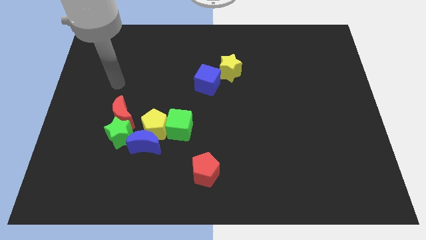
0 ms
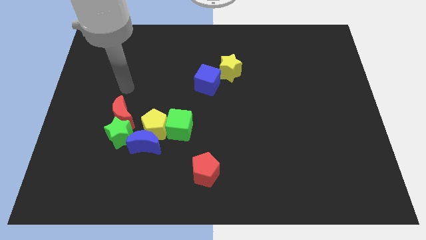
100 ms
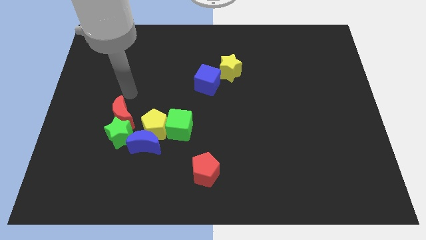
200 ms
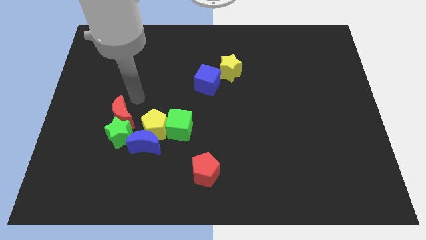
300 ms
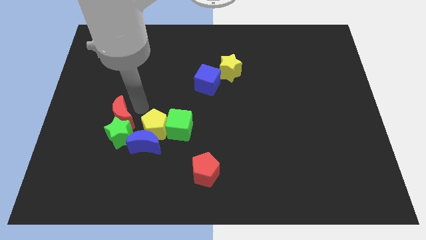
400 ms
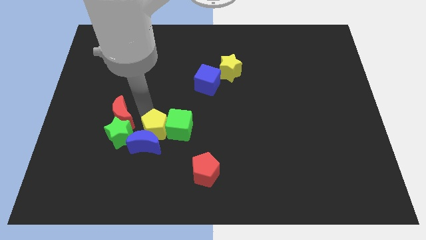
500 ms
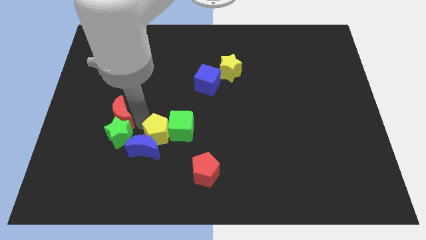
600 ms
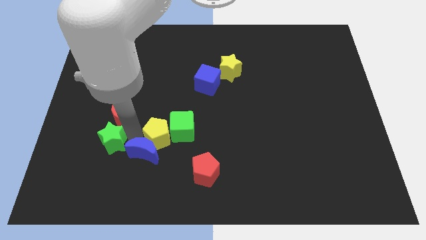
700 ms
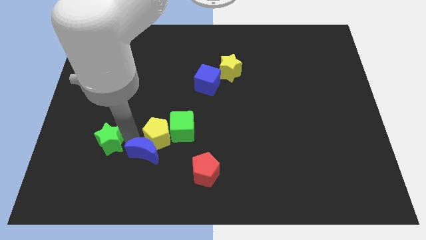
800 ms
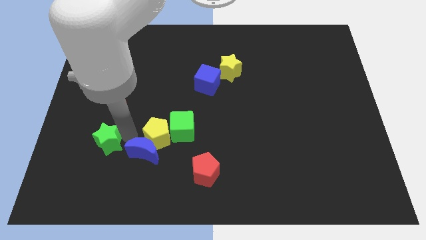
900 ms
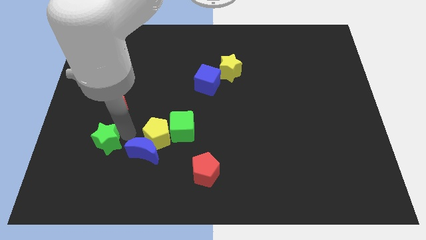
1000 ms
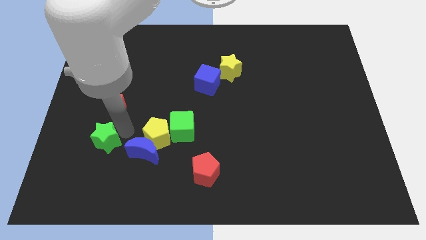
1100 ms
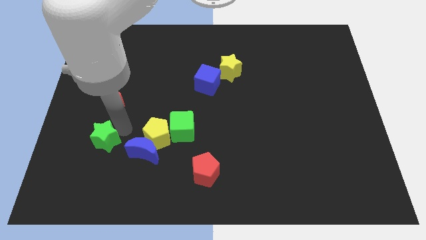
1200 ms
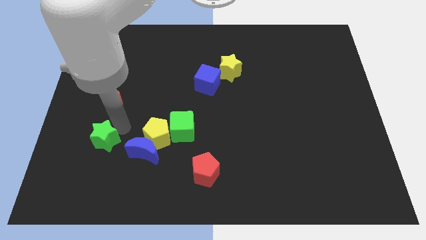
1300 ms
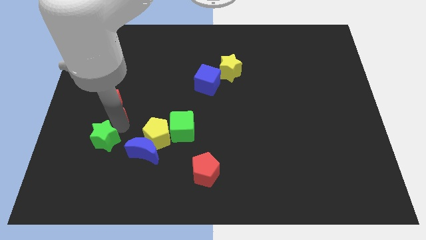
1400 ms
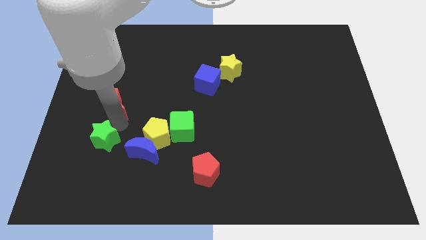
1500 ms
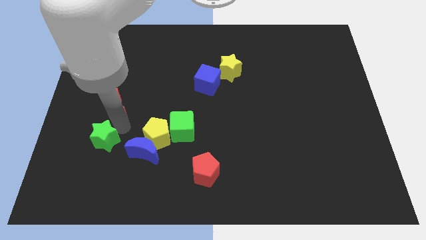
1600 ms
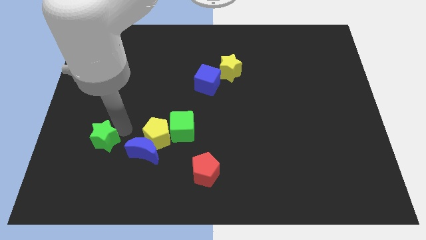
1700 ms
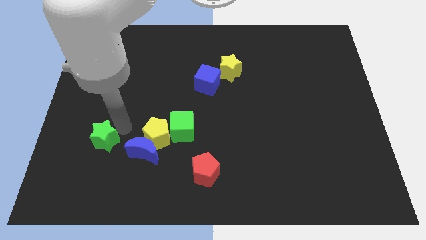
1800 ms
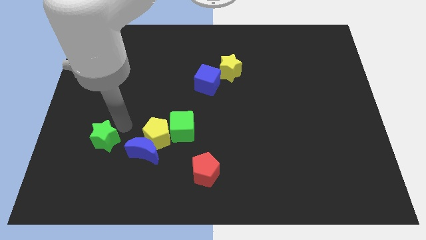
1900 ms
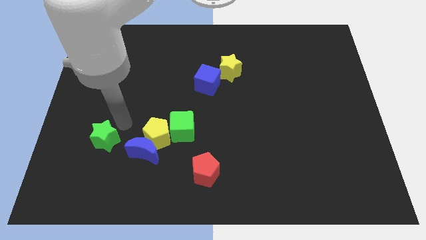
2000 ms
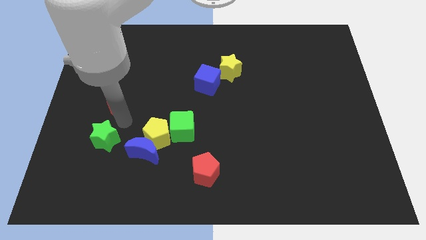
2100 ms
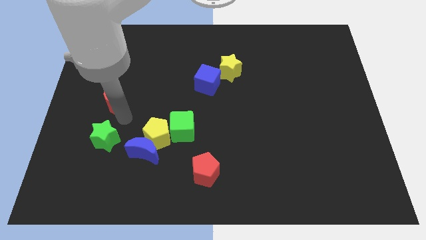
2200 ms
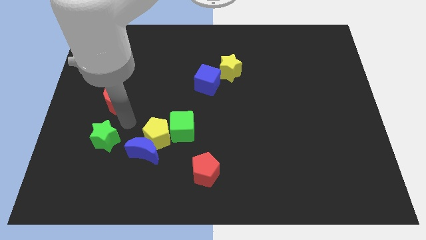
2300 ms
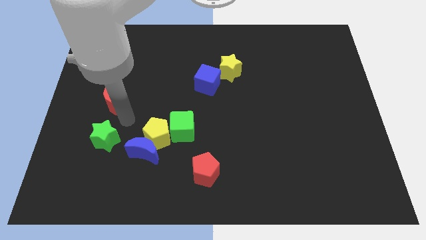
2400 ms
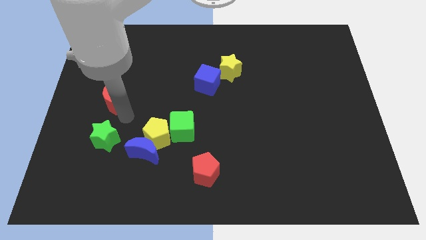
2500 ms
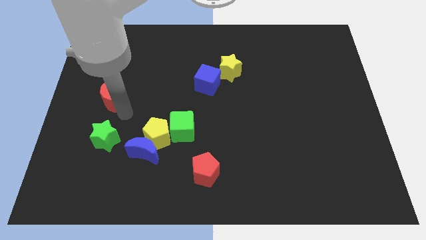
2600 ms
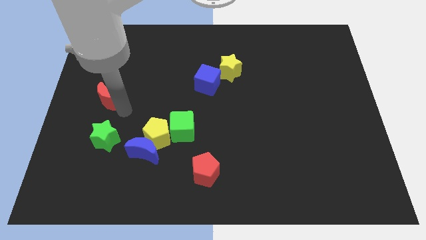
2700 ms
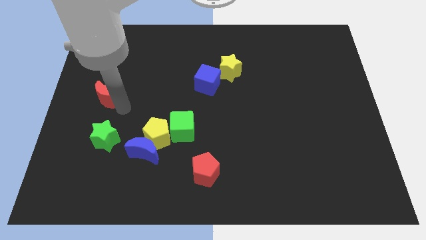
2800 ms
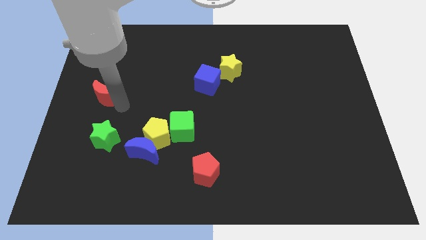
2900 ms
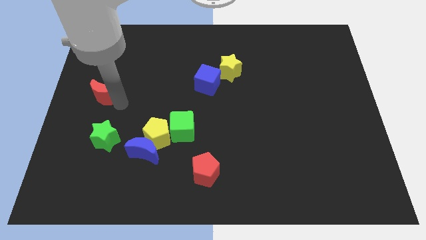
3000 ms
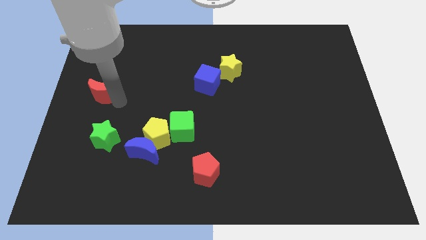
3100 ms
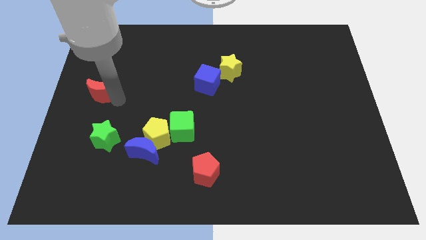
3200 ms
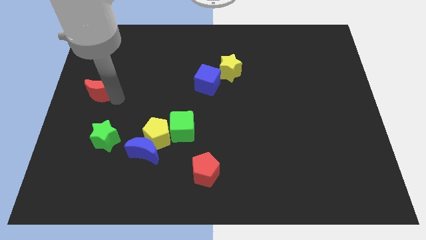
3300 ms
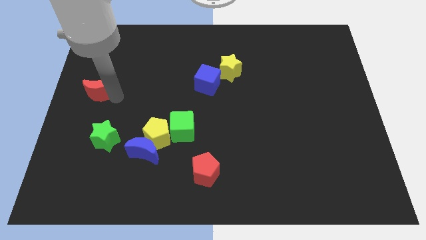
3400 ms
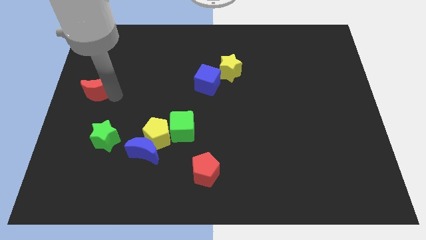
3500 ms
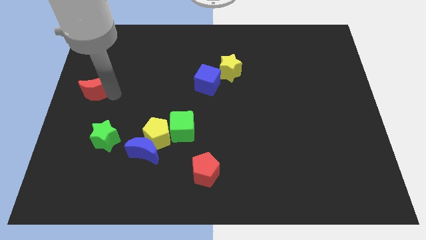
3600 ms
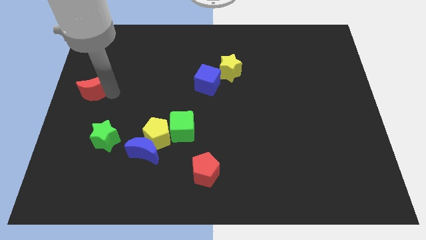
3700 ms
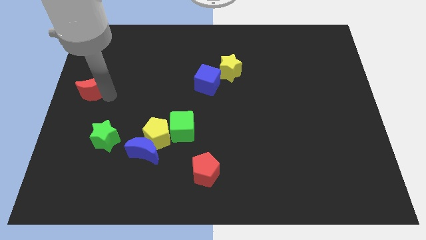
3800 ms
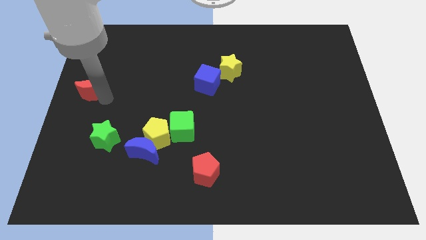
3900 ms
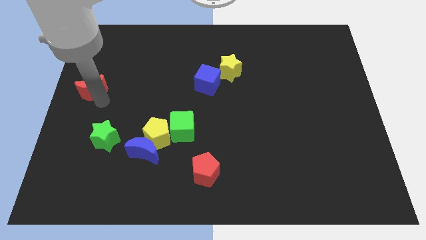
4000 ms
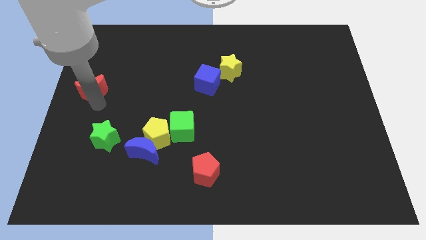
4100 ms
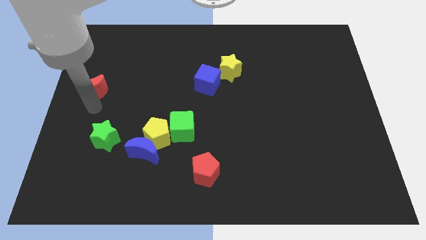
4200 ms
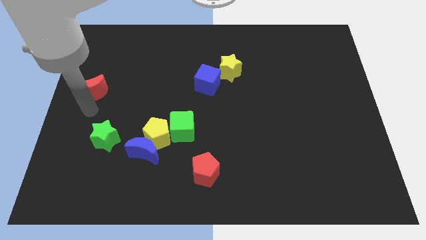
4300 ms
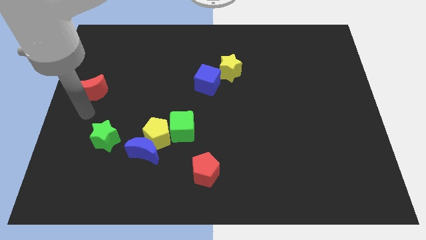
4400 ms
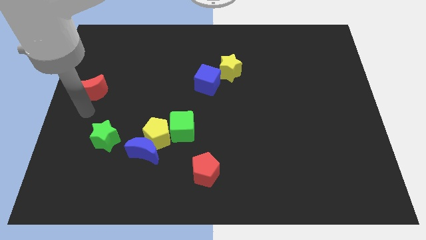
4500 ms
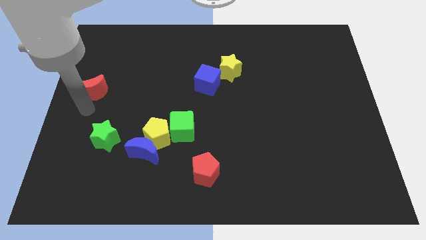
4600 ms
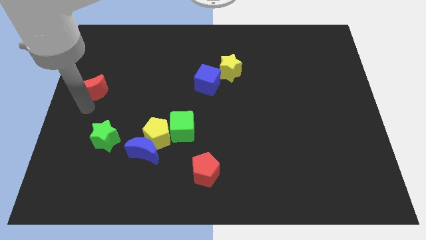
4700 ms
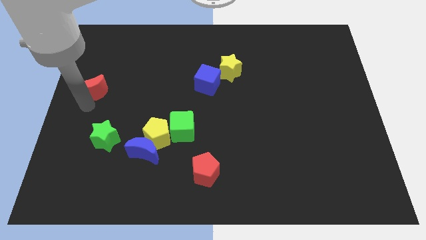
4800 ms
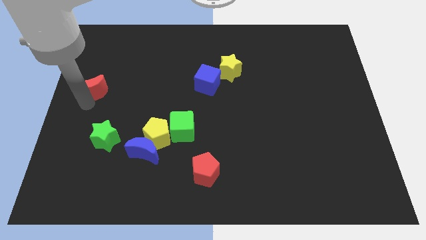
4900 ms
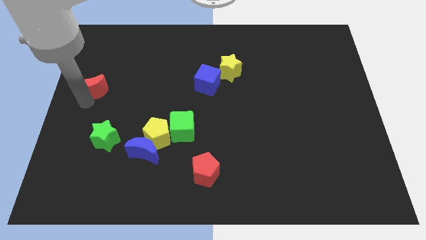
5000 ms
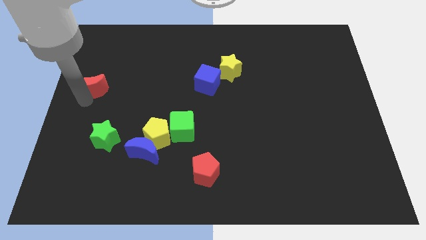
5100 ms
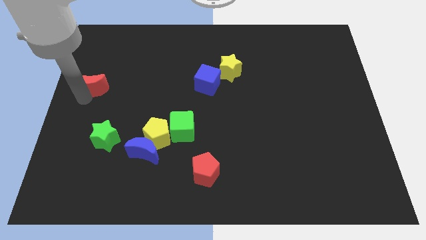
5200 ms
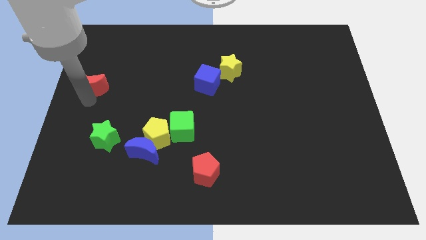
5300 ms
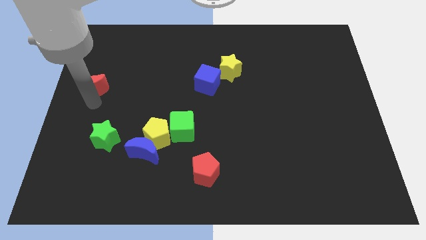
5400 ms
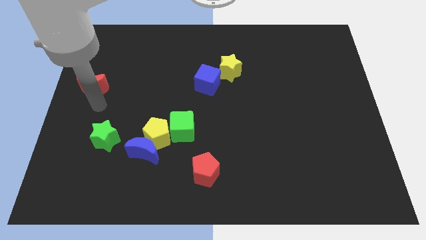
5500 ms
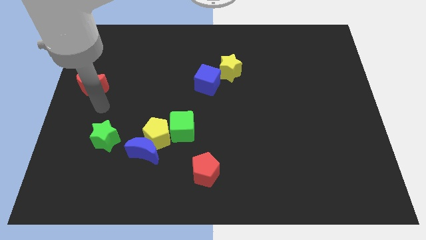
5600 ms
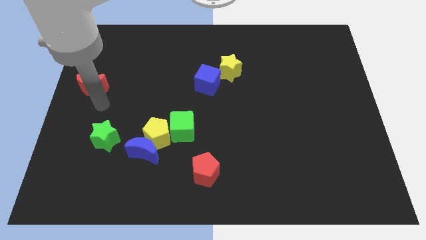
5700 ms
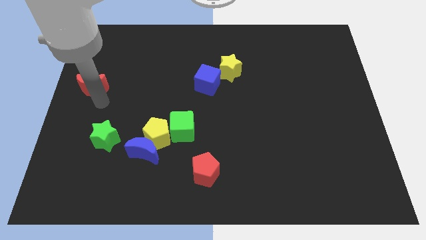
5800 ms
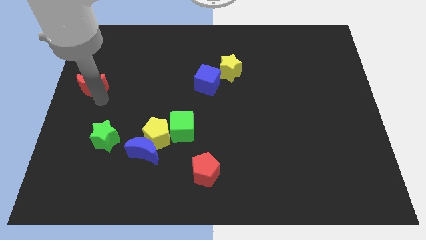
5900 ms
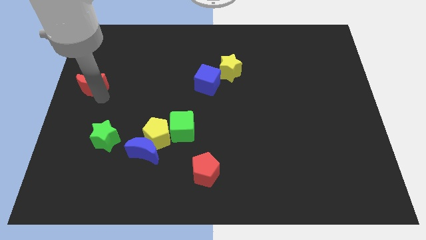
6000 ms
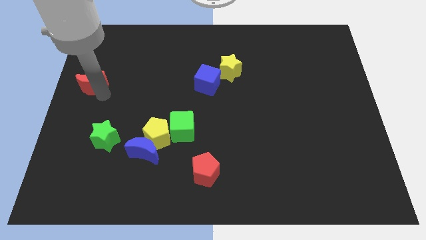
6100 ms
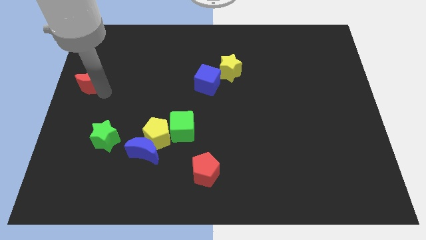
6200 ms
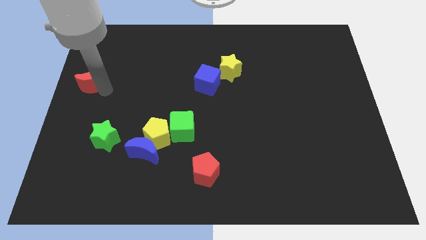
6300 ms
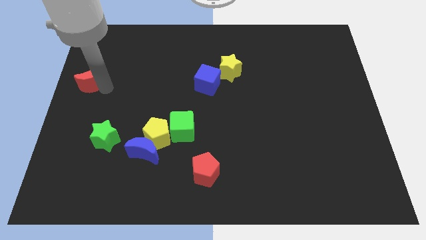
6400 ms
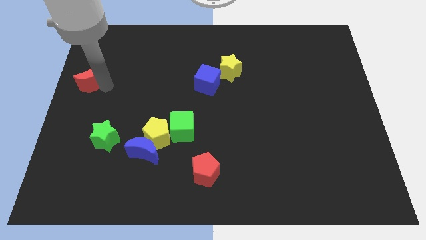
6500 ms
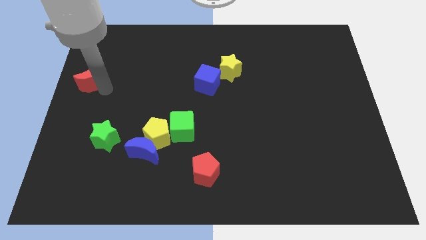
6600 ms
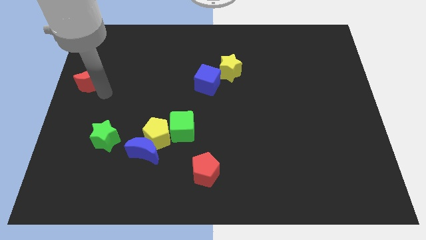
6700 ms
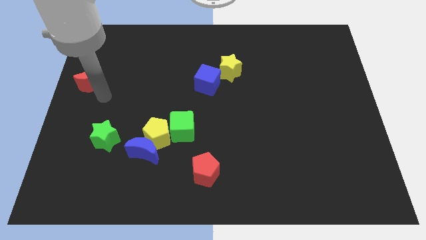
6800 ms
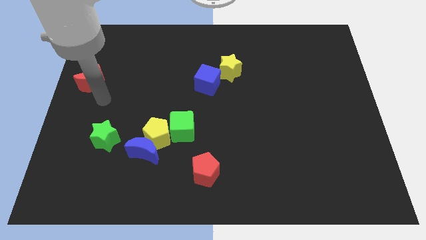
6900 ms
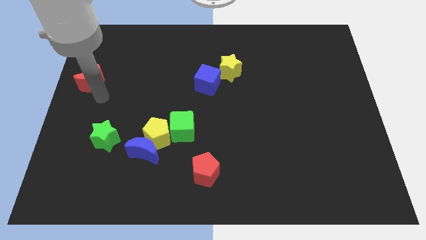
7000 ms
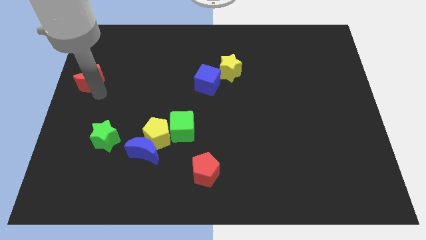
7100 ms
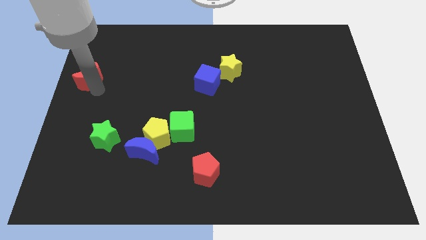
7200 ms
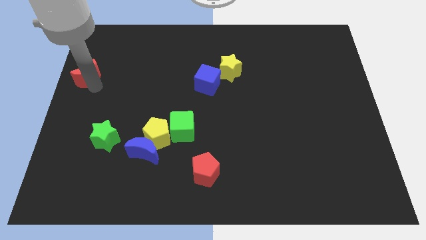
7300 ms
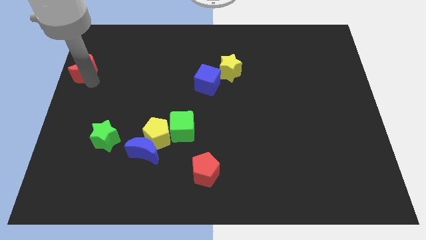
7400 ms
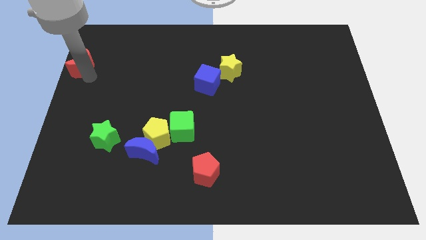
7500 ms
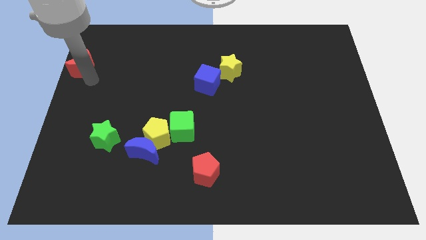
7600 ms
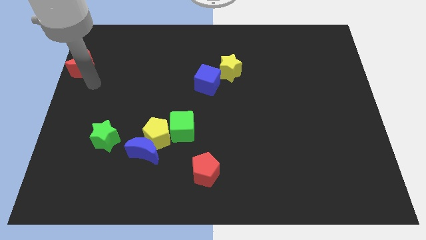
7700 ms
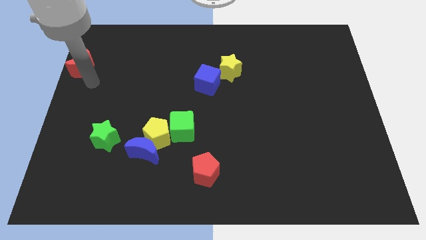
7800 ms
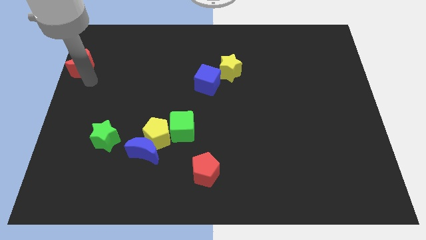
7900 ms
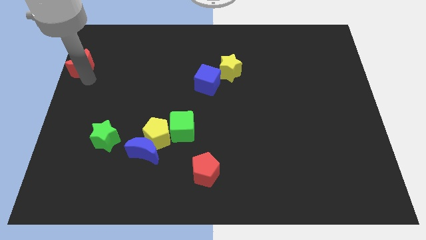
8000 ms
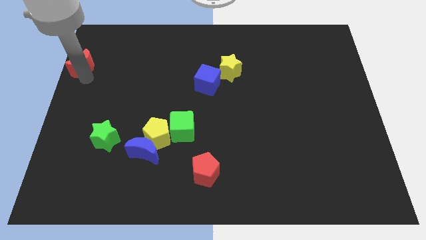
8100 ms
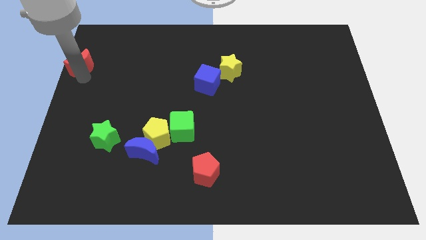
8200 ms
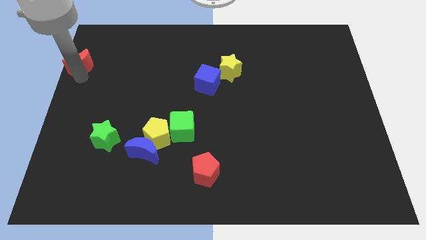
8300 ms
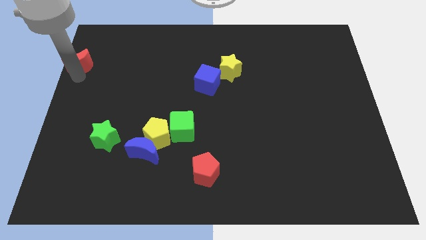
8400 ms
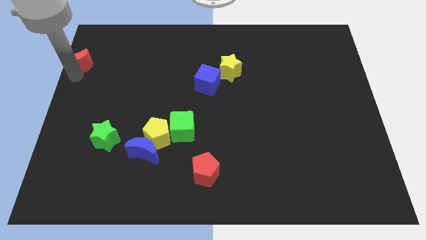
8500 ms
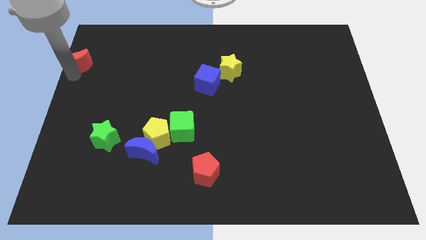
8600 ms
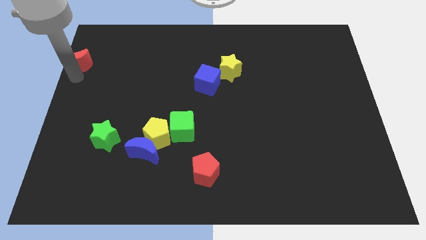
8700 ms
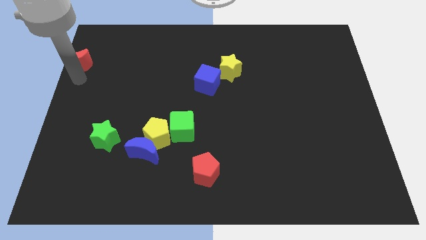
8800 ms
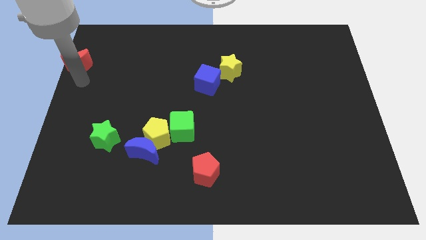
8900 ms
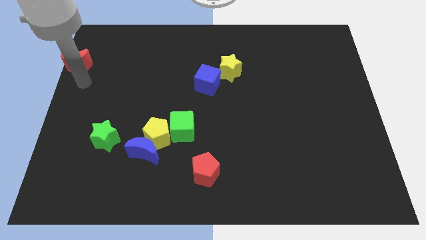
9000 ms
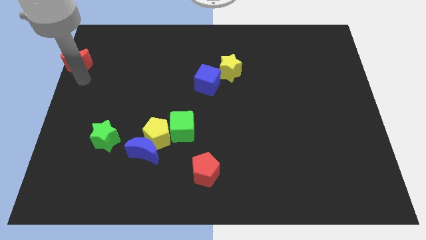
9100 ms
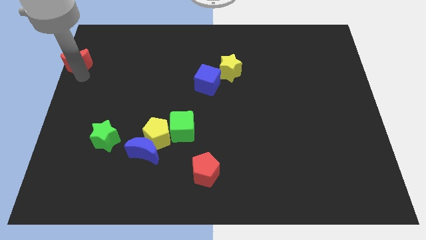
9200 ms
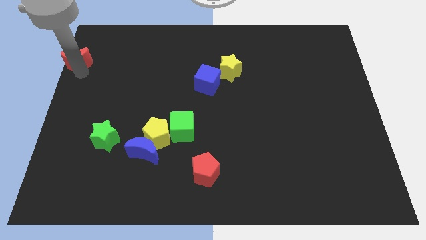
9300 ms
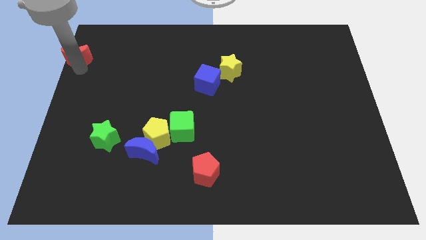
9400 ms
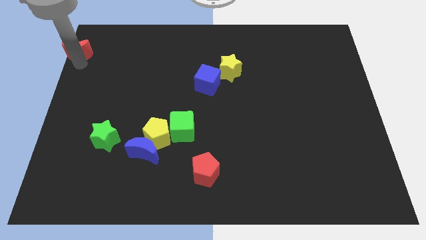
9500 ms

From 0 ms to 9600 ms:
push the red moon to the upper left corner
